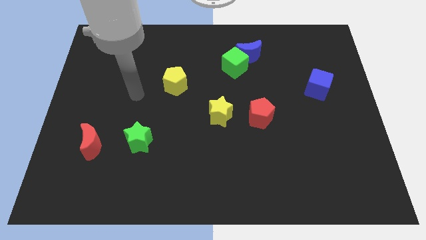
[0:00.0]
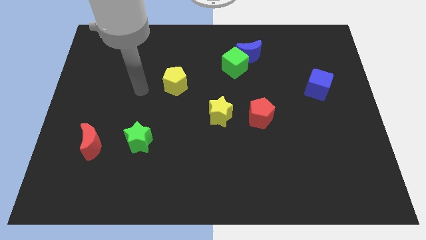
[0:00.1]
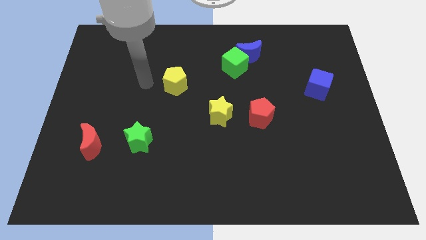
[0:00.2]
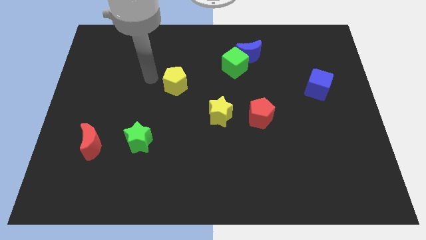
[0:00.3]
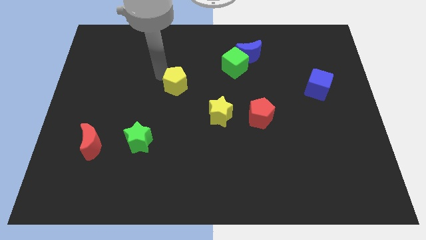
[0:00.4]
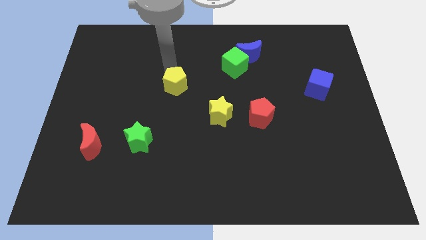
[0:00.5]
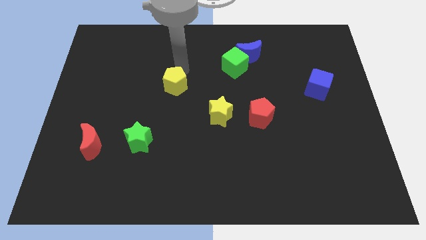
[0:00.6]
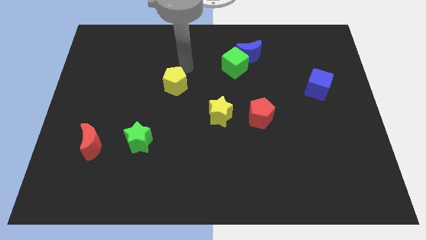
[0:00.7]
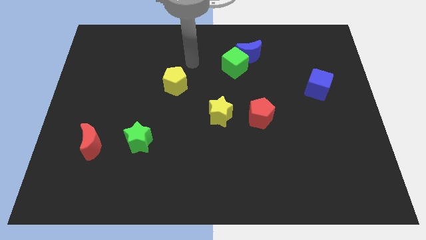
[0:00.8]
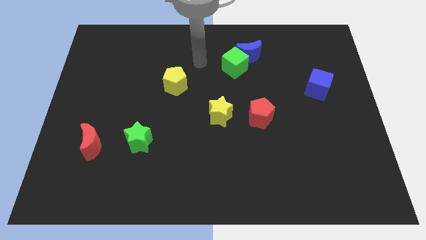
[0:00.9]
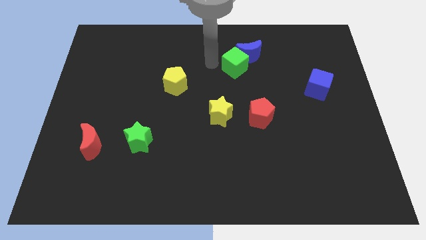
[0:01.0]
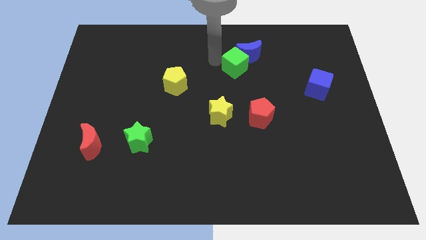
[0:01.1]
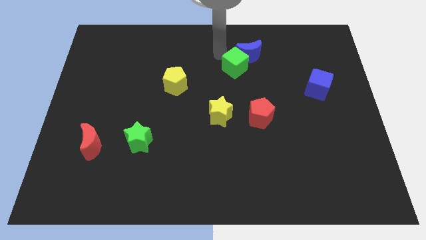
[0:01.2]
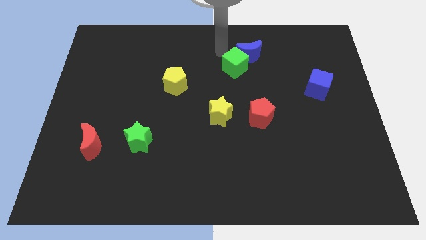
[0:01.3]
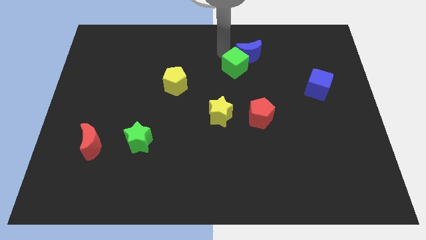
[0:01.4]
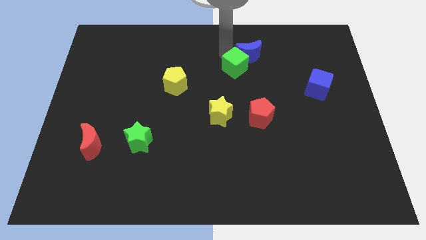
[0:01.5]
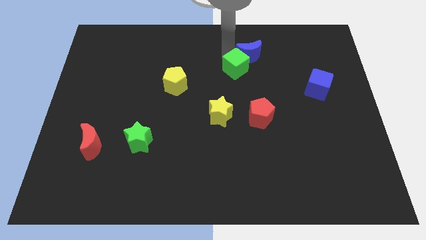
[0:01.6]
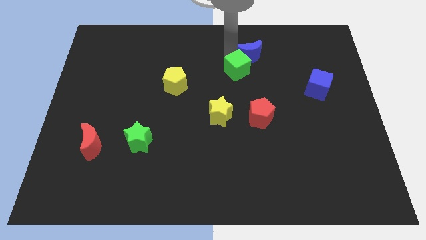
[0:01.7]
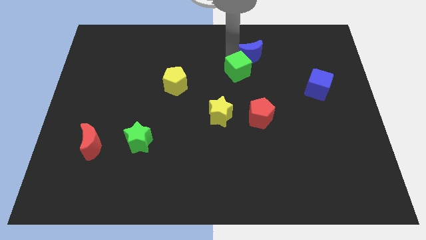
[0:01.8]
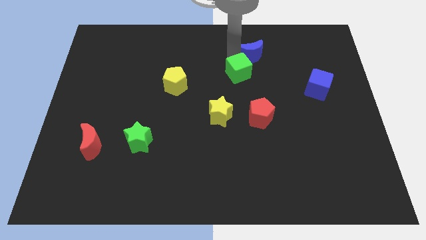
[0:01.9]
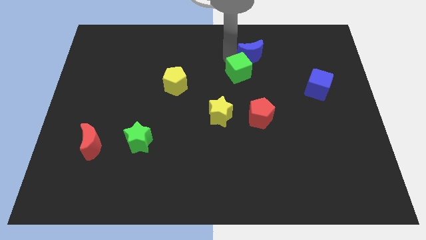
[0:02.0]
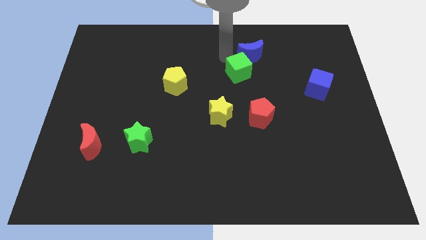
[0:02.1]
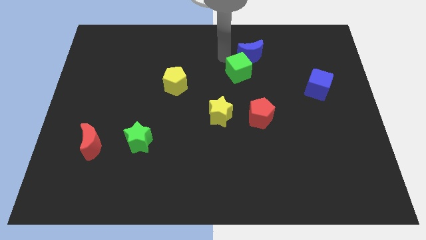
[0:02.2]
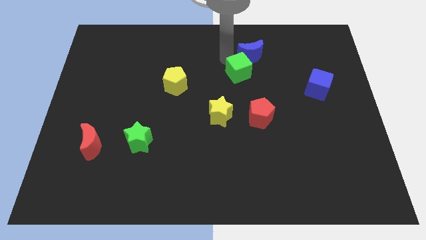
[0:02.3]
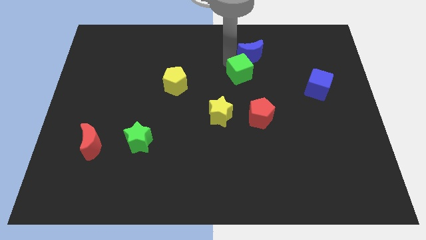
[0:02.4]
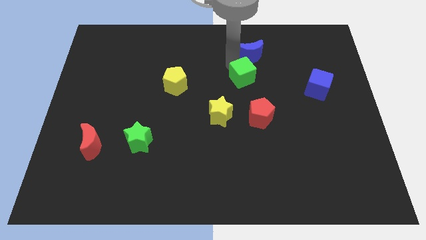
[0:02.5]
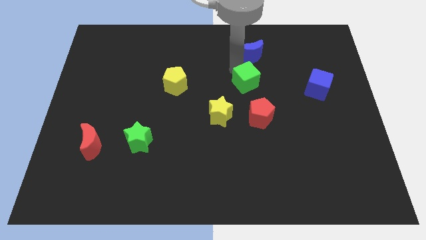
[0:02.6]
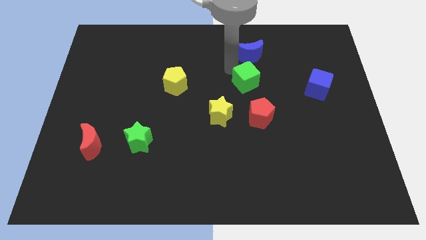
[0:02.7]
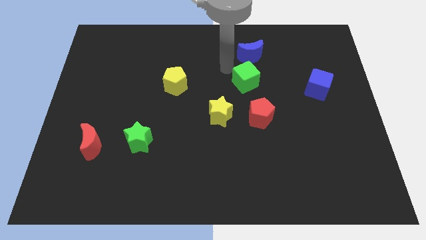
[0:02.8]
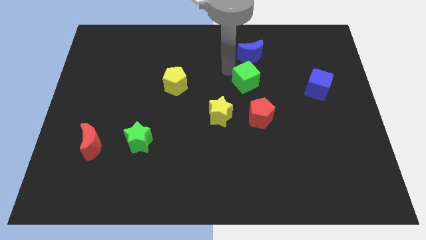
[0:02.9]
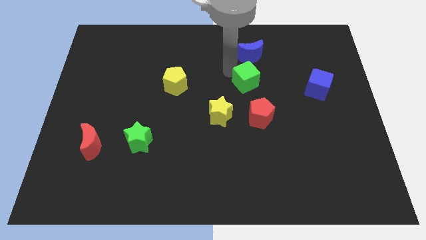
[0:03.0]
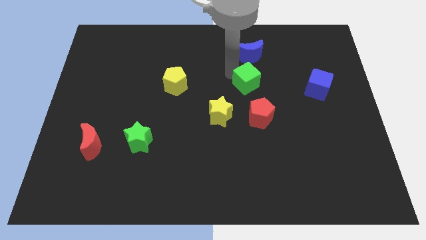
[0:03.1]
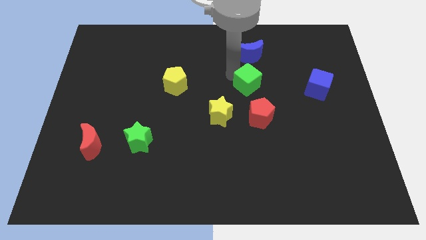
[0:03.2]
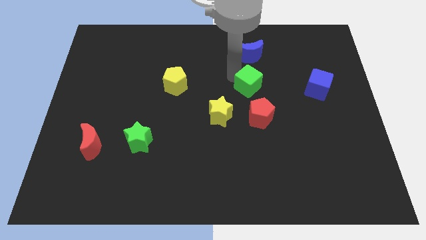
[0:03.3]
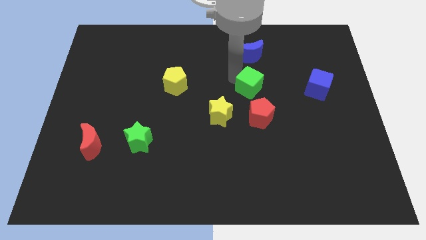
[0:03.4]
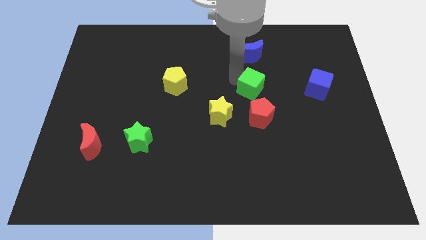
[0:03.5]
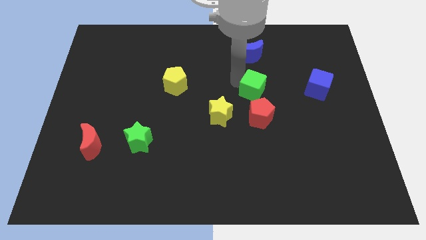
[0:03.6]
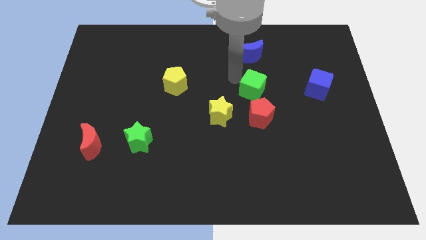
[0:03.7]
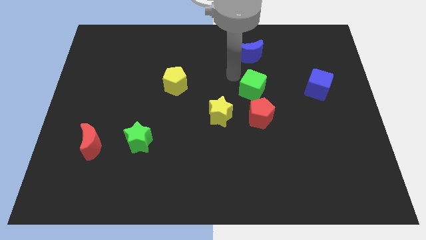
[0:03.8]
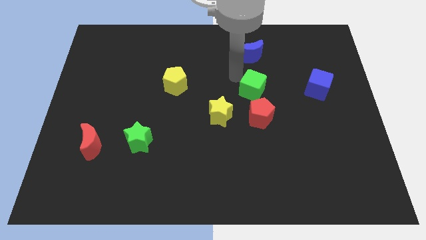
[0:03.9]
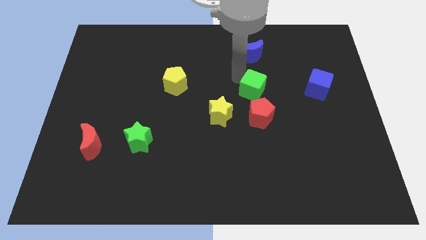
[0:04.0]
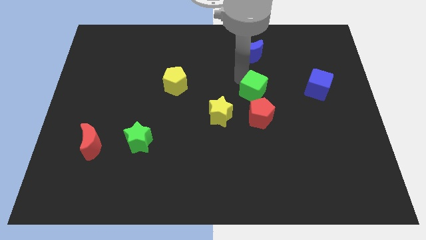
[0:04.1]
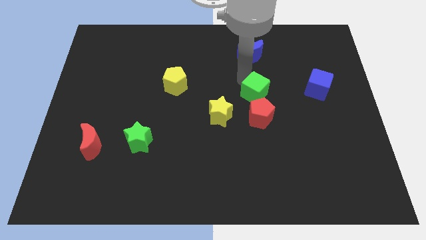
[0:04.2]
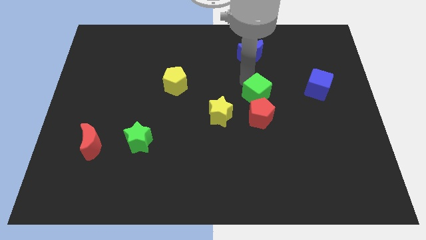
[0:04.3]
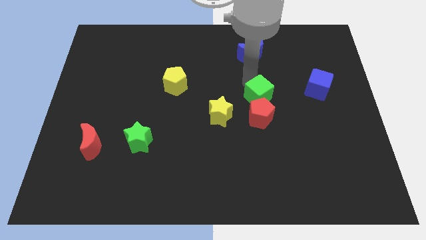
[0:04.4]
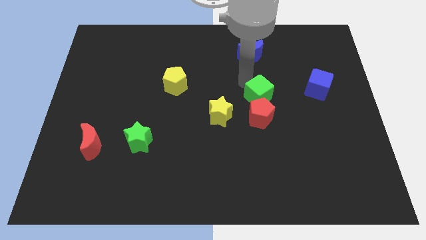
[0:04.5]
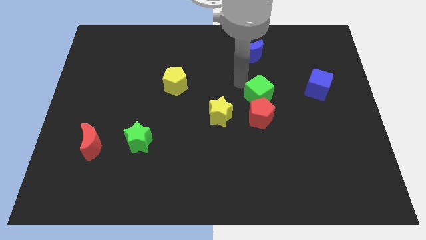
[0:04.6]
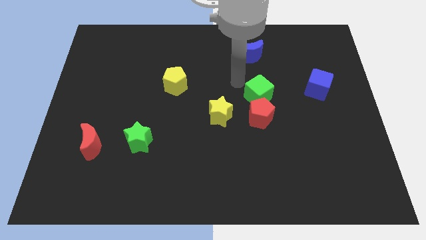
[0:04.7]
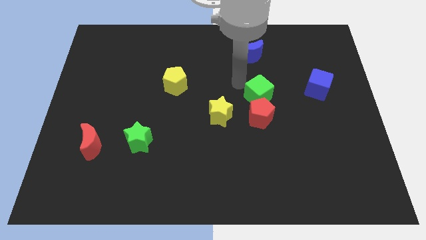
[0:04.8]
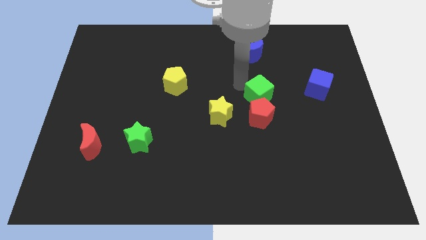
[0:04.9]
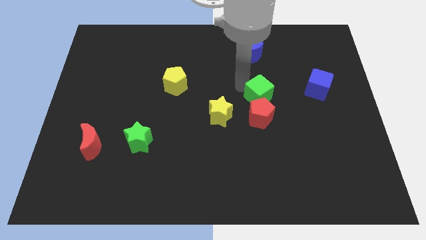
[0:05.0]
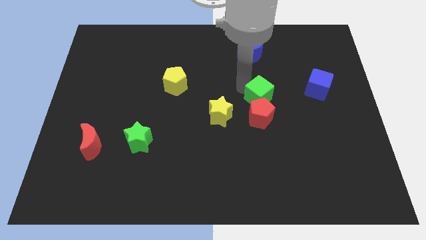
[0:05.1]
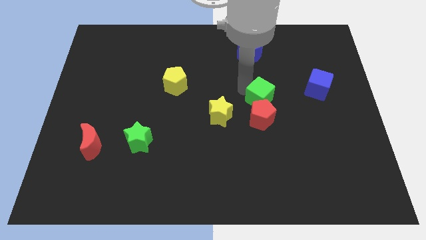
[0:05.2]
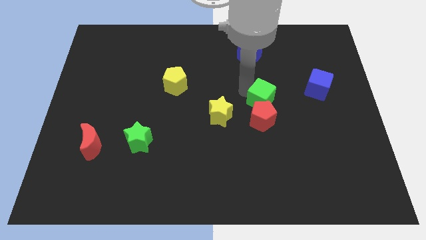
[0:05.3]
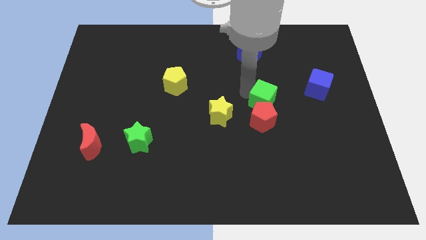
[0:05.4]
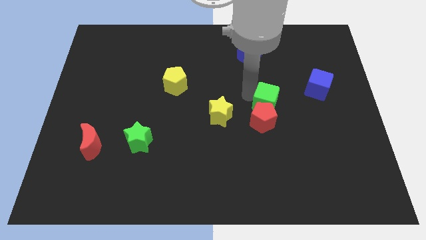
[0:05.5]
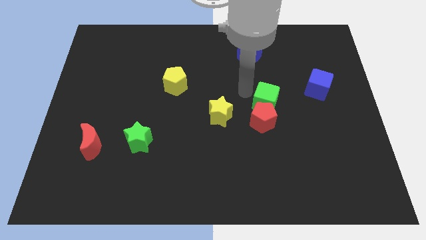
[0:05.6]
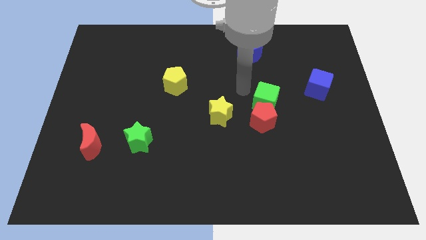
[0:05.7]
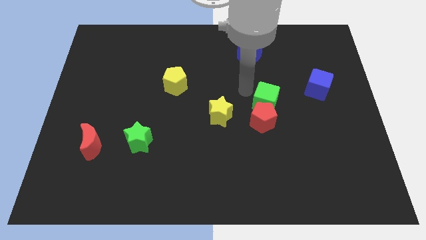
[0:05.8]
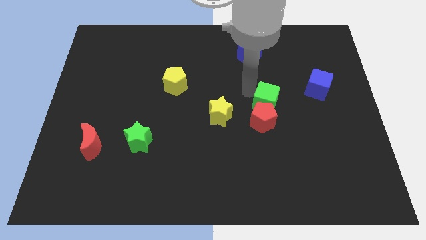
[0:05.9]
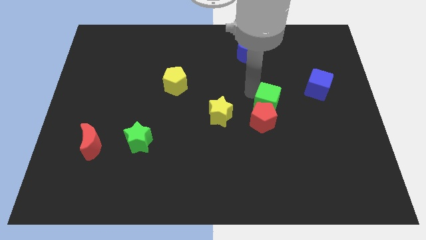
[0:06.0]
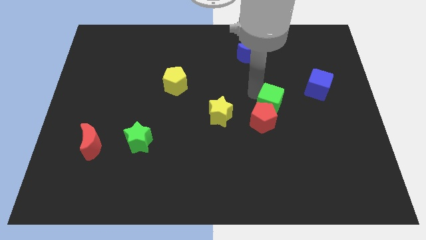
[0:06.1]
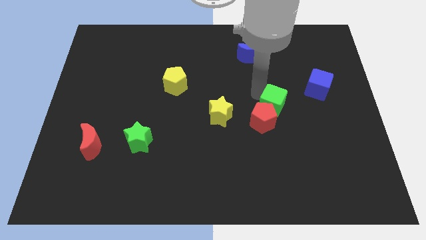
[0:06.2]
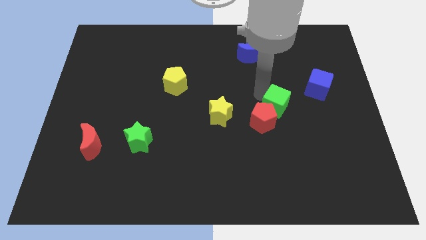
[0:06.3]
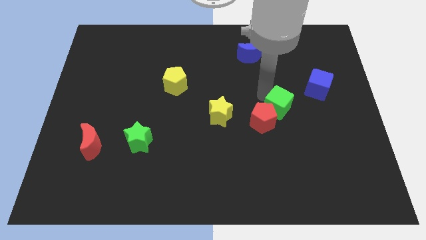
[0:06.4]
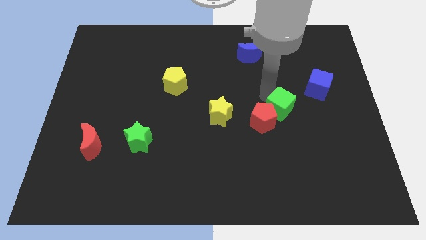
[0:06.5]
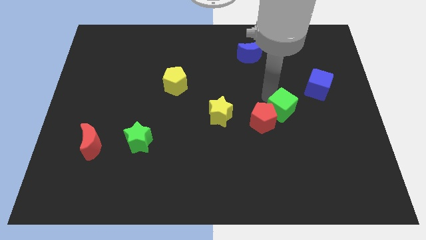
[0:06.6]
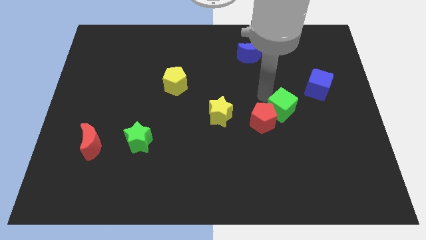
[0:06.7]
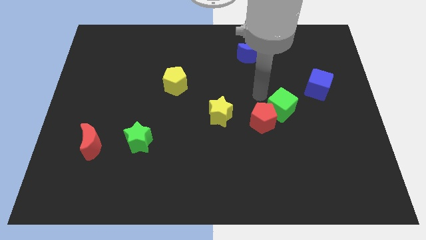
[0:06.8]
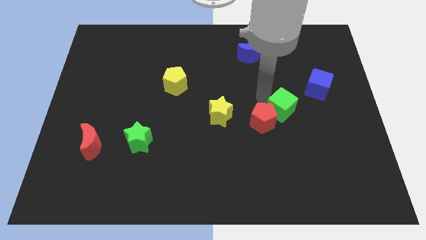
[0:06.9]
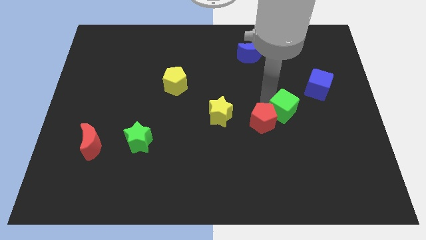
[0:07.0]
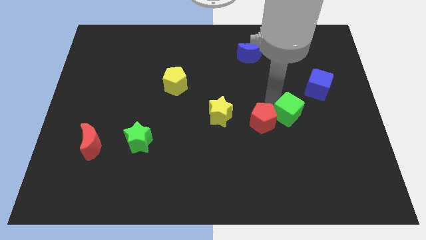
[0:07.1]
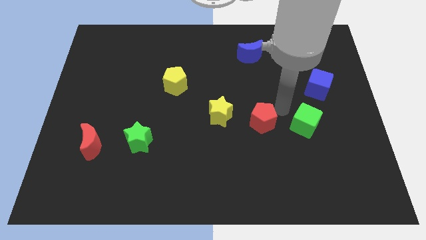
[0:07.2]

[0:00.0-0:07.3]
slide the green cube down and then to the right

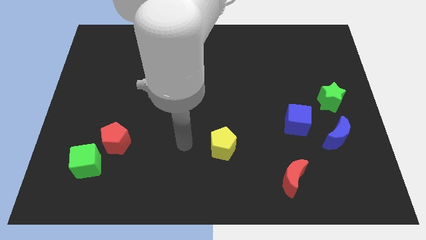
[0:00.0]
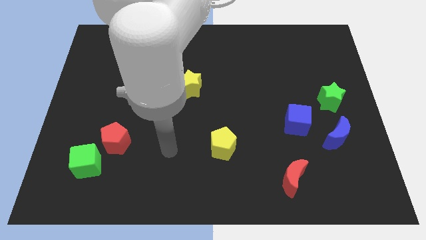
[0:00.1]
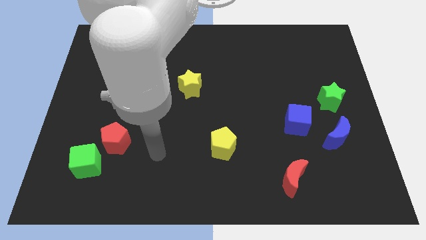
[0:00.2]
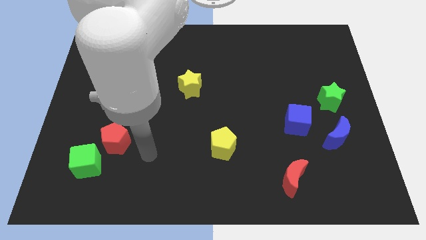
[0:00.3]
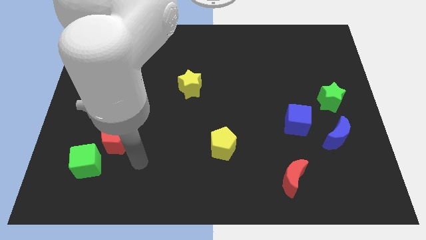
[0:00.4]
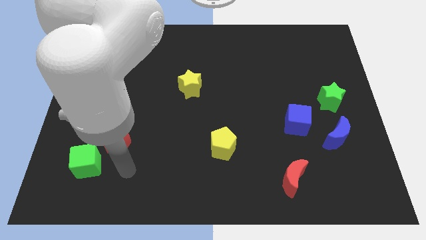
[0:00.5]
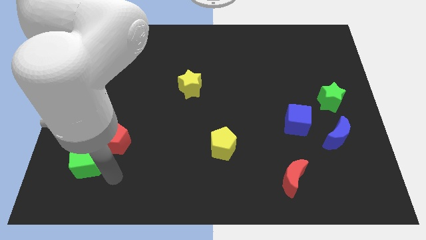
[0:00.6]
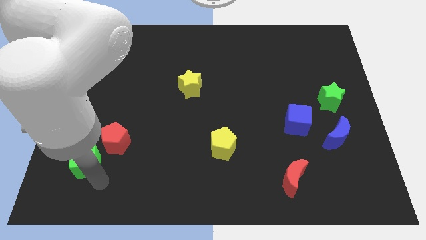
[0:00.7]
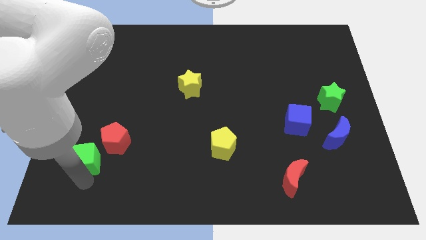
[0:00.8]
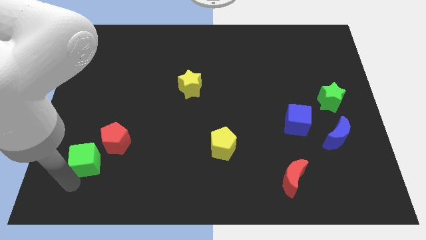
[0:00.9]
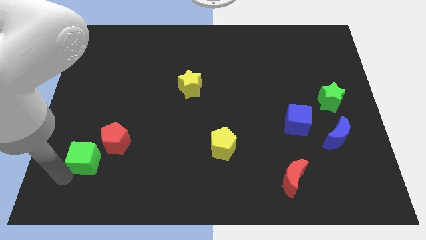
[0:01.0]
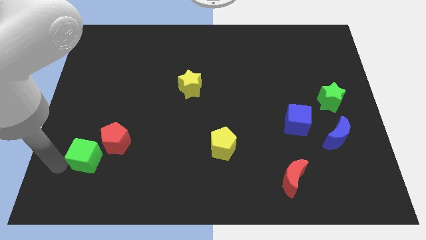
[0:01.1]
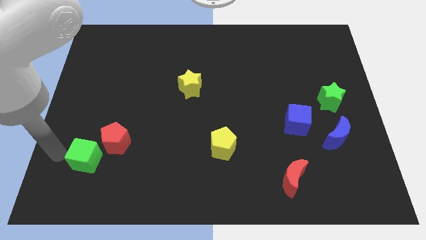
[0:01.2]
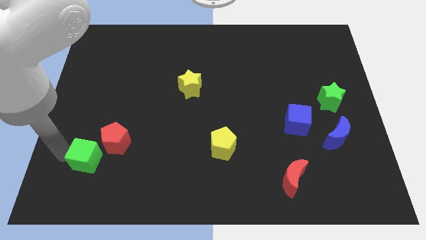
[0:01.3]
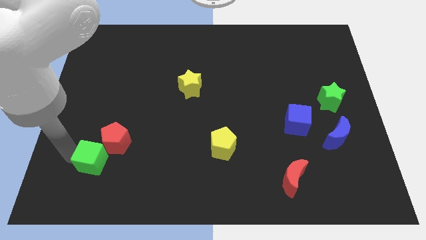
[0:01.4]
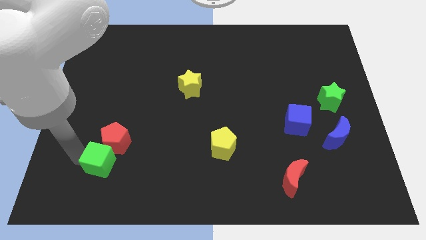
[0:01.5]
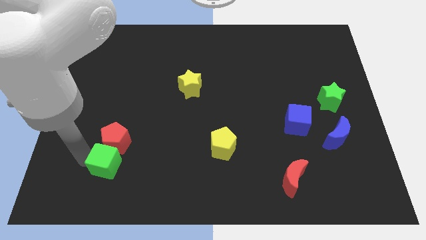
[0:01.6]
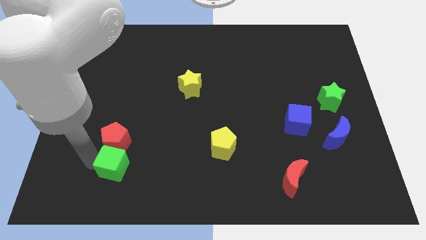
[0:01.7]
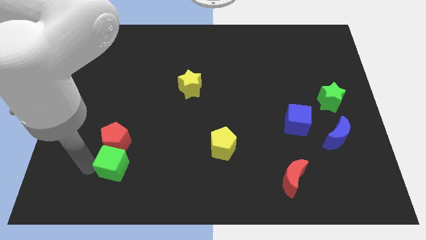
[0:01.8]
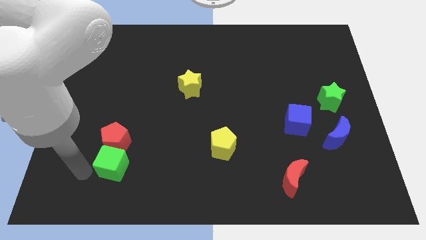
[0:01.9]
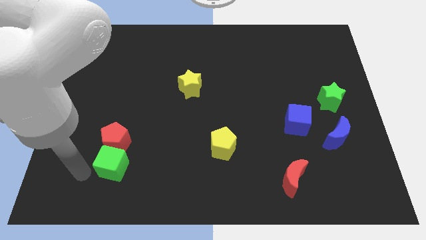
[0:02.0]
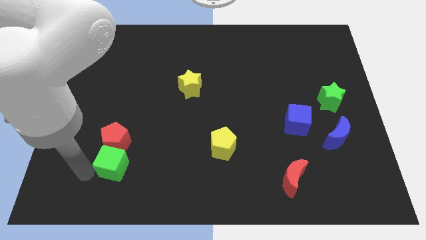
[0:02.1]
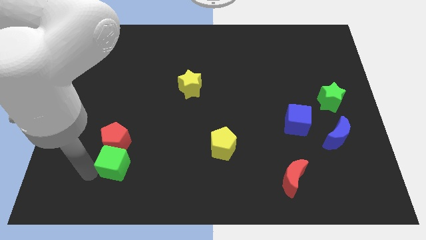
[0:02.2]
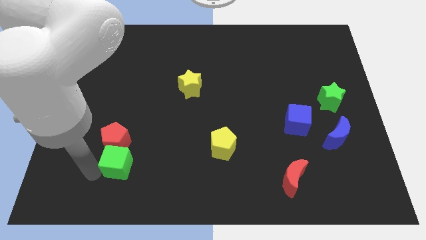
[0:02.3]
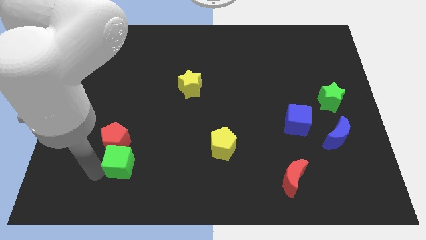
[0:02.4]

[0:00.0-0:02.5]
slightly move the green cube right
